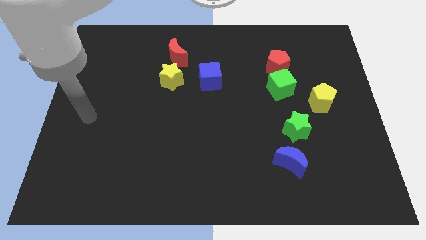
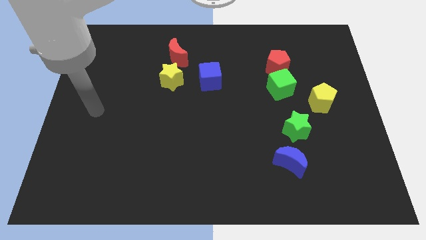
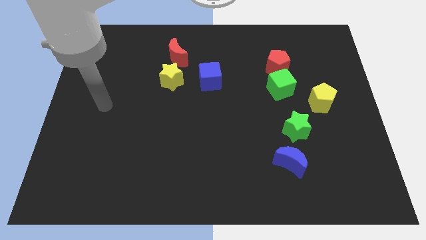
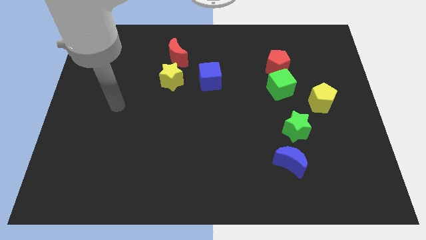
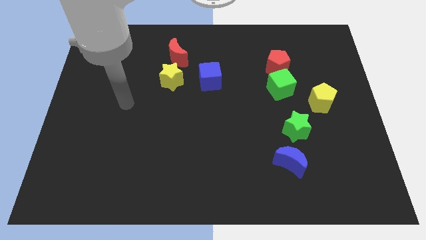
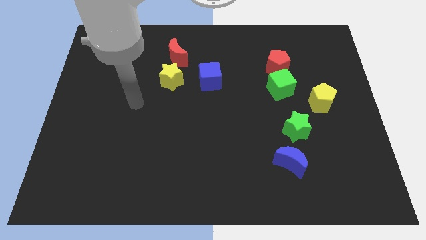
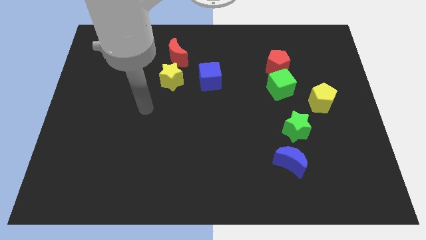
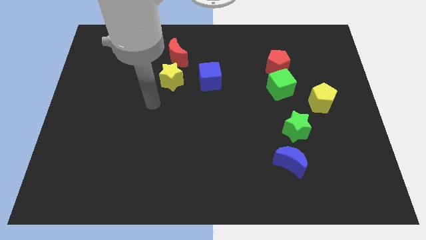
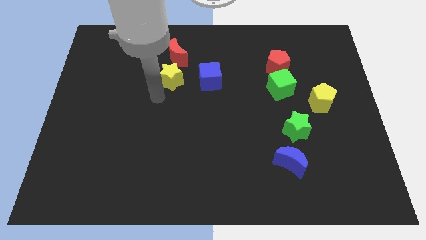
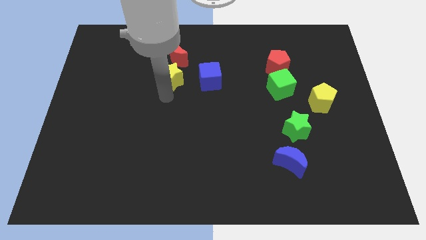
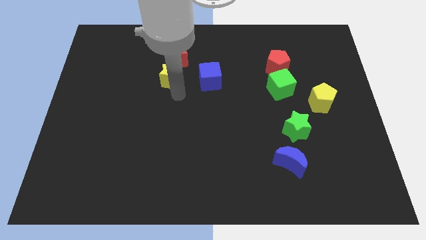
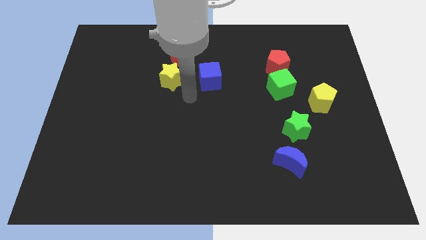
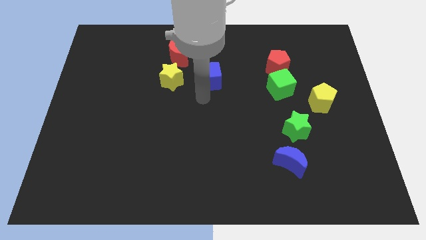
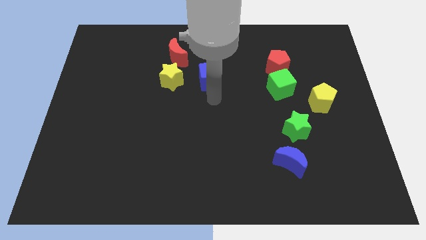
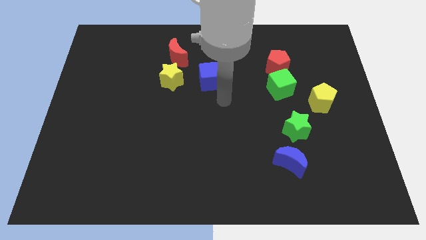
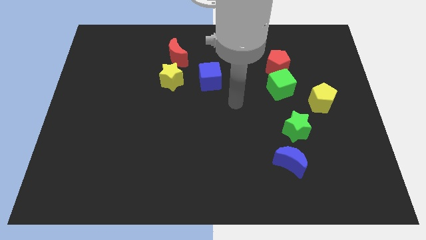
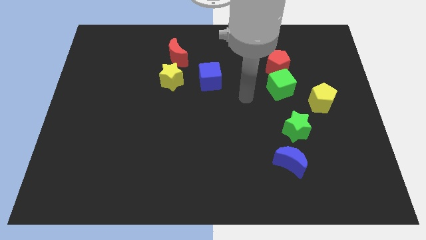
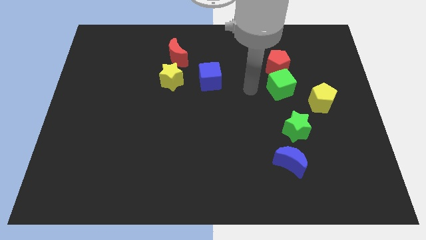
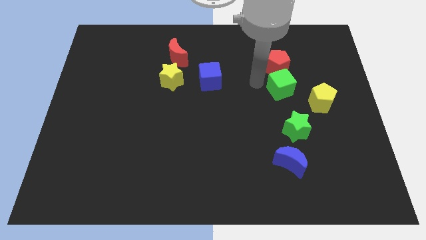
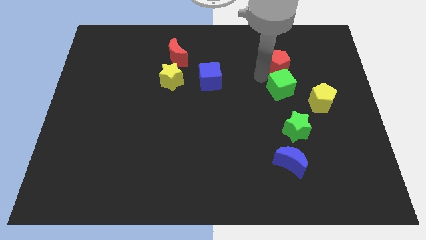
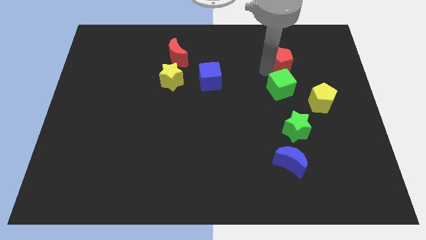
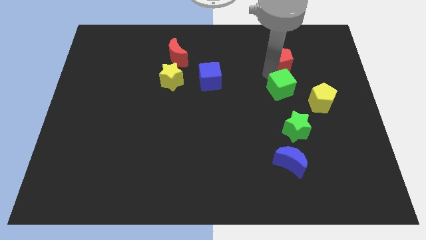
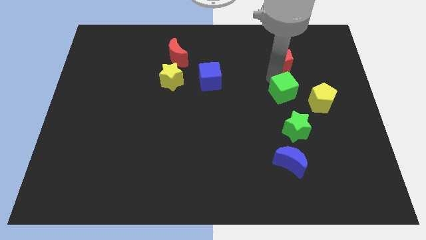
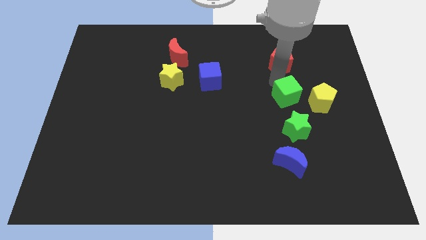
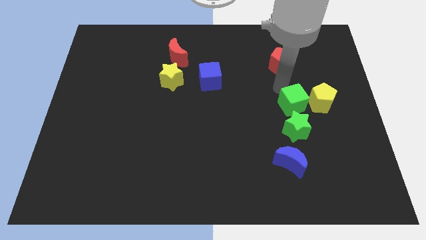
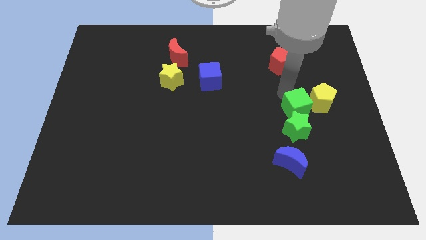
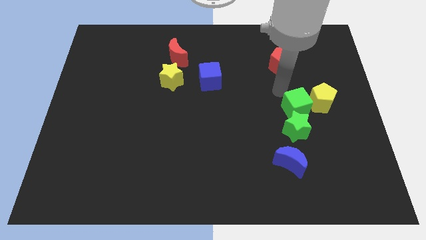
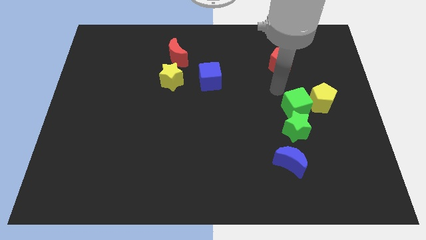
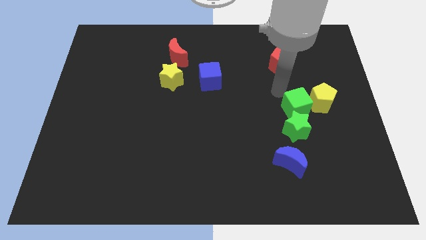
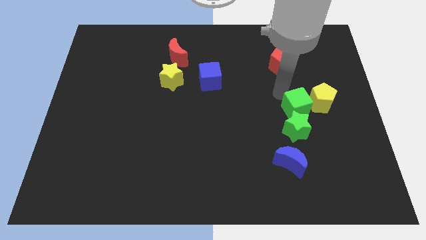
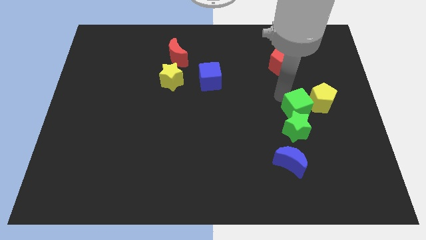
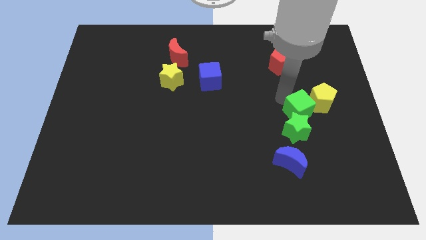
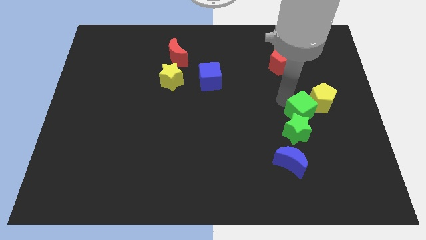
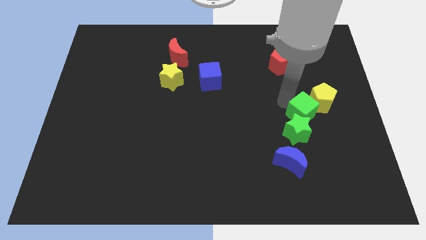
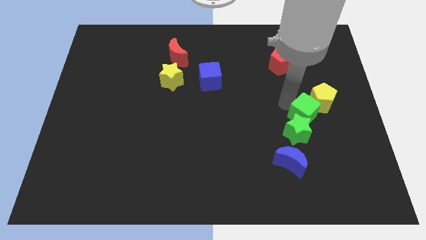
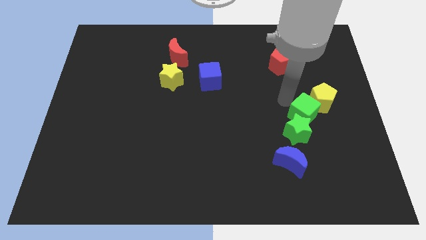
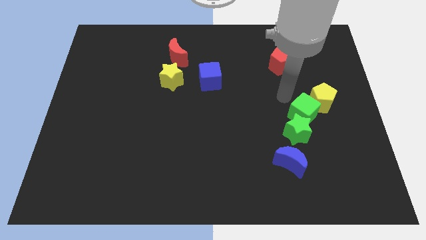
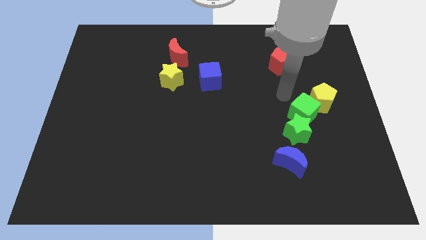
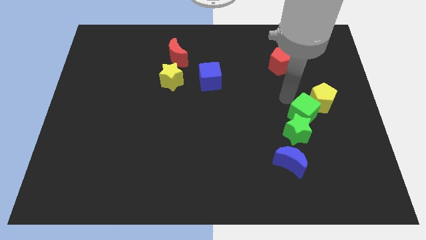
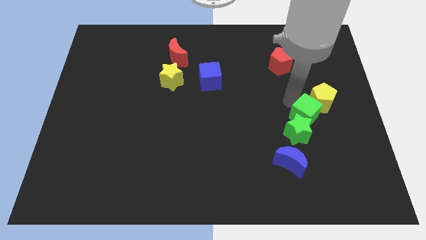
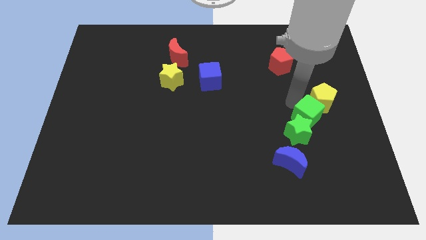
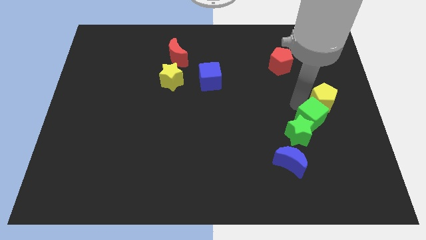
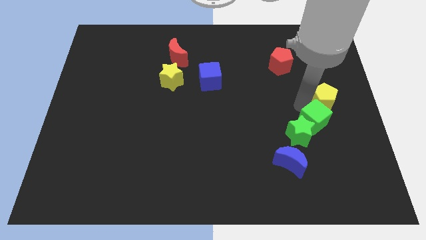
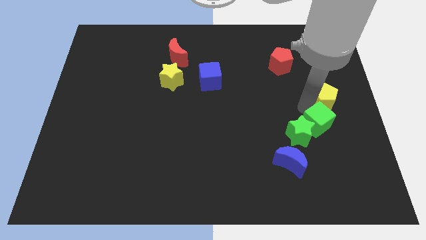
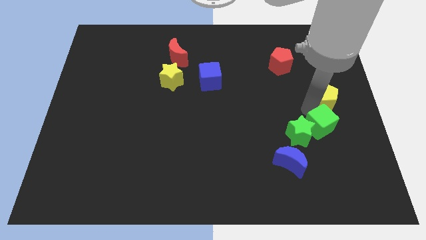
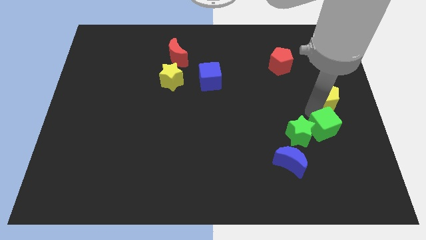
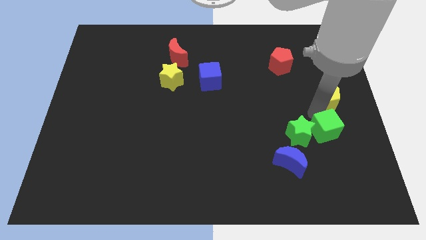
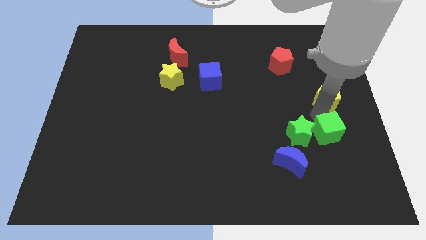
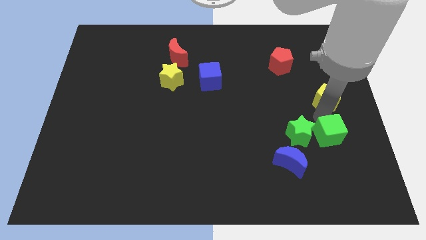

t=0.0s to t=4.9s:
put the green cube diagonally down and to the right of the green star

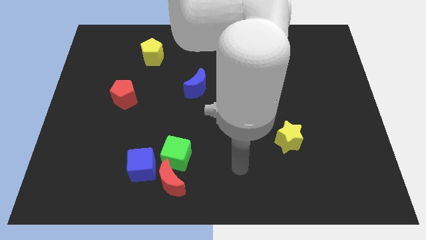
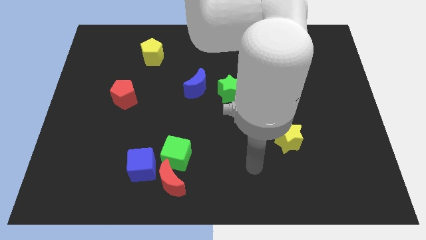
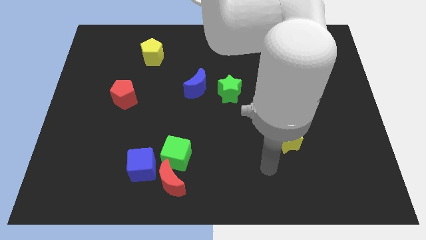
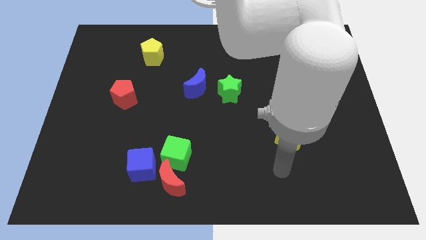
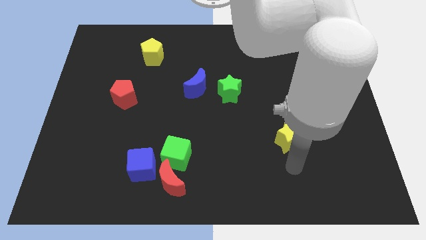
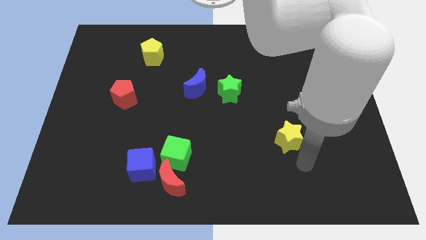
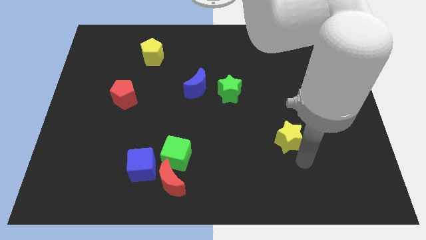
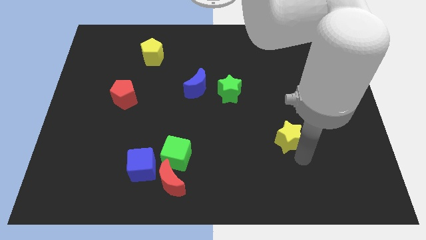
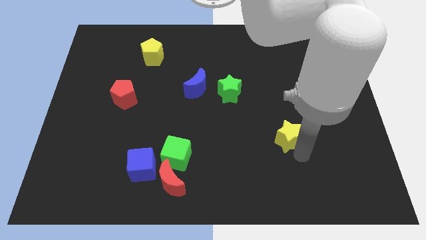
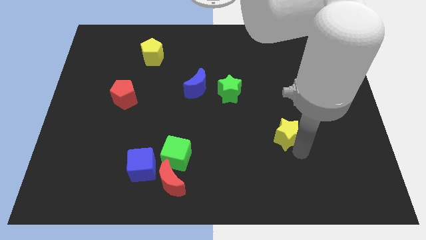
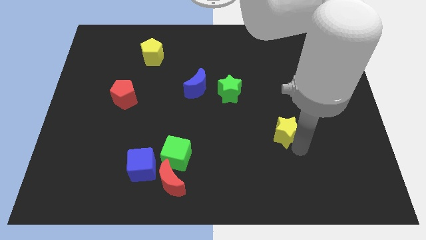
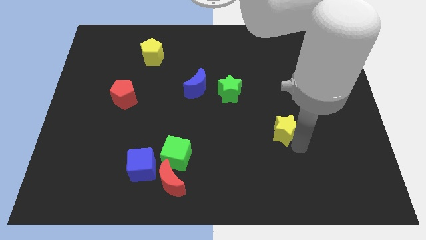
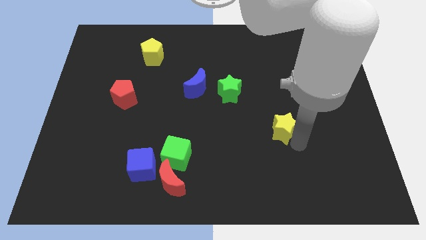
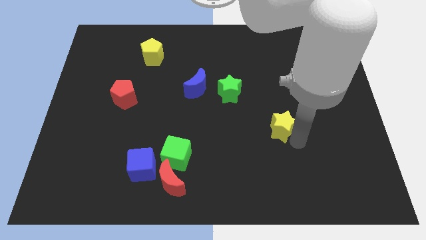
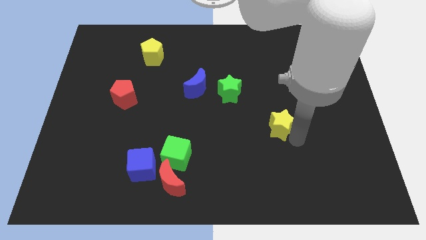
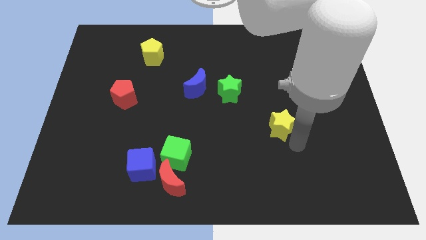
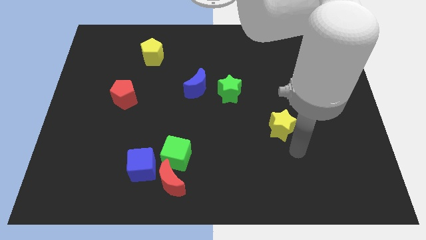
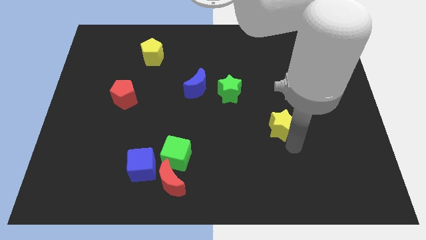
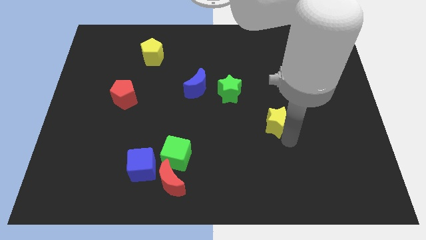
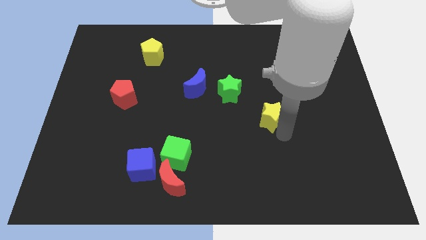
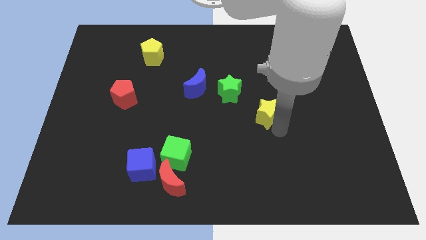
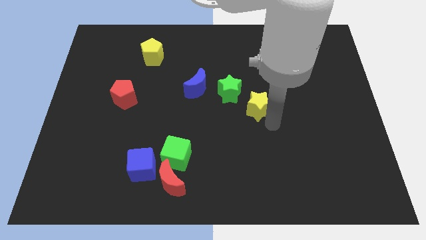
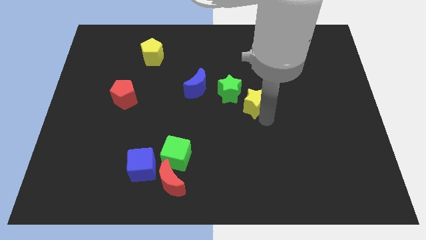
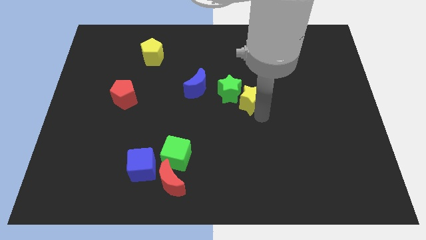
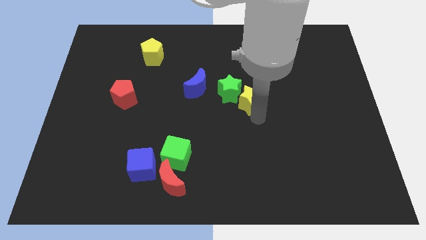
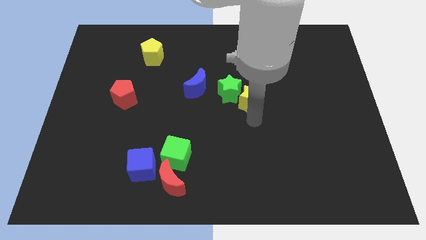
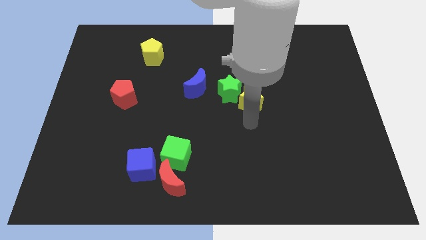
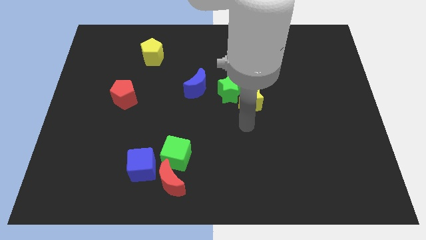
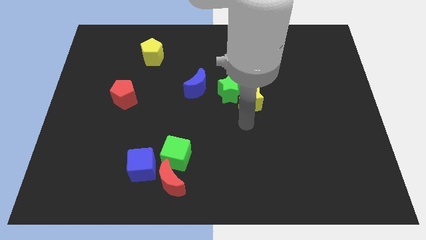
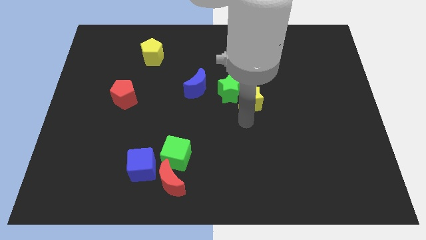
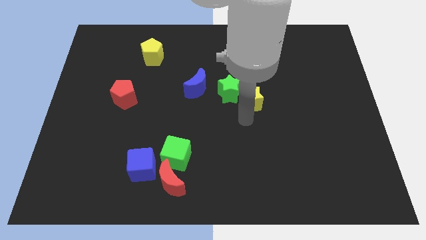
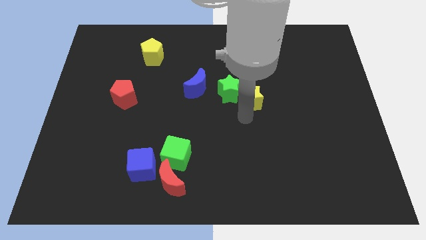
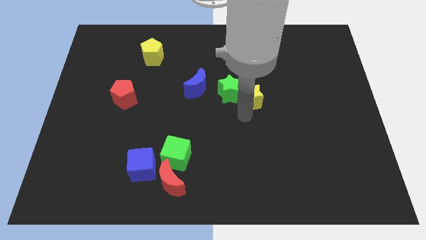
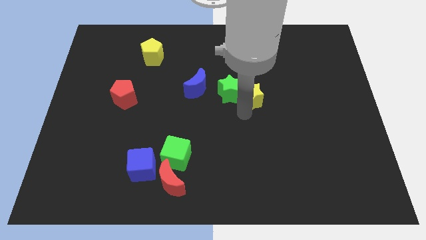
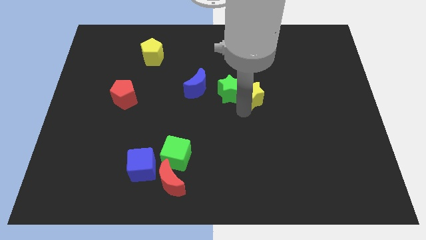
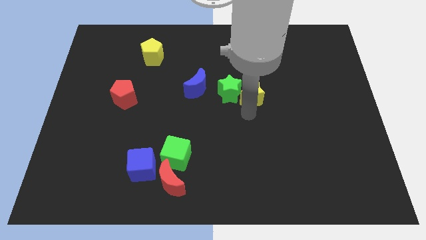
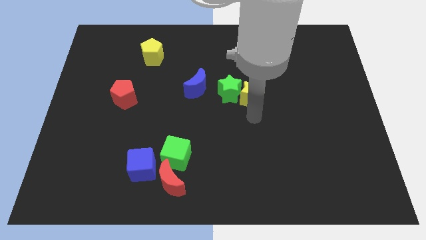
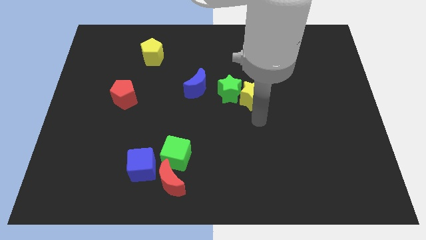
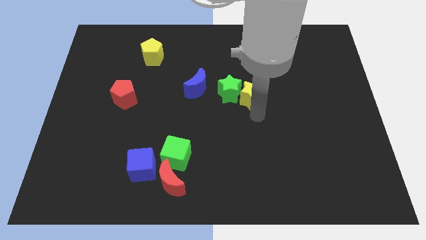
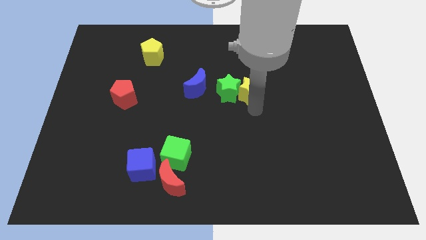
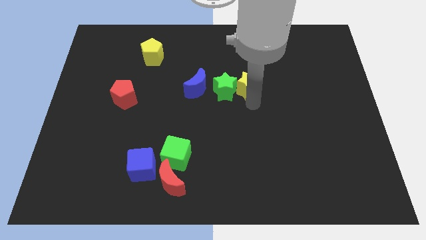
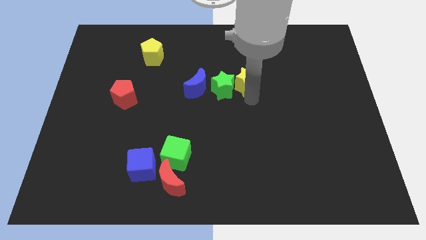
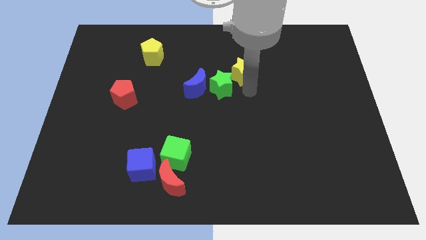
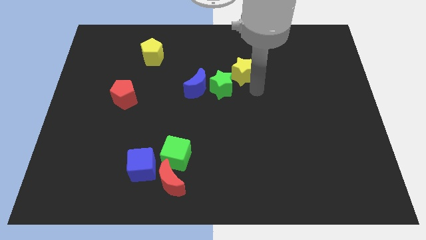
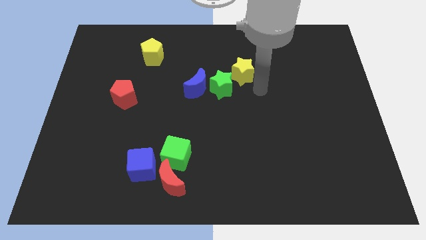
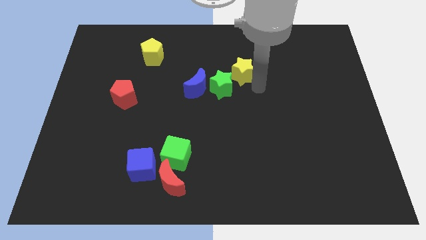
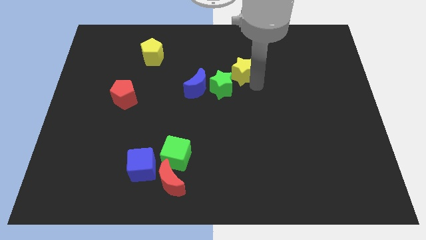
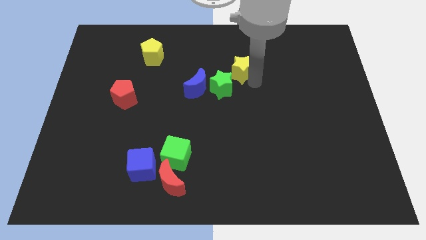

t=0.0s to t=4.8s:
move the yellow star to the top side of the green star
